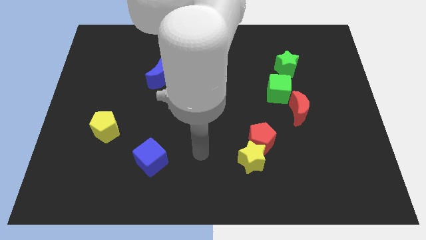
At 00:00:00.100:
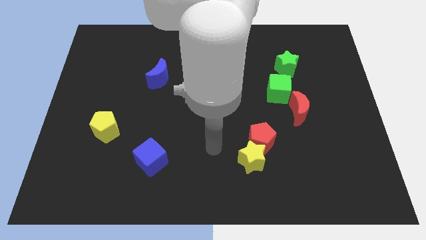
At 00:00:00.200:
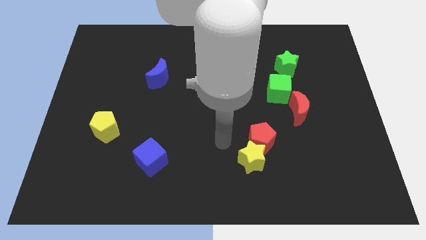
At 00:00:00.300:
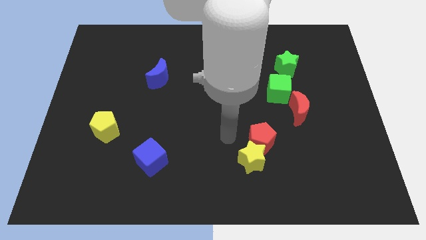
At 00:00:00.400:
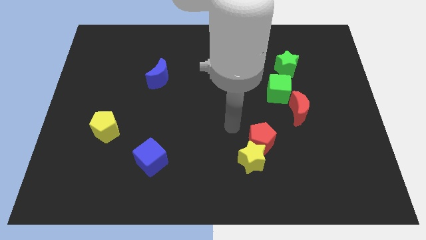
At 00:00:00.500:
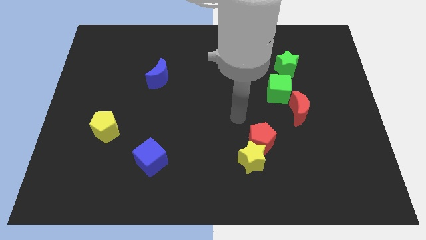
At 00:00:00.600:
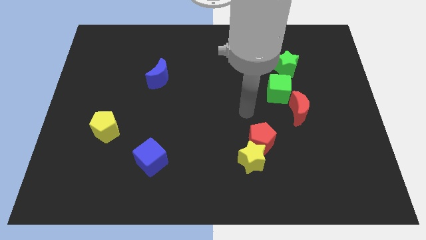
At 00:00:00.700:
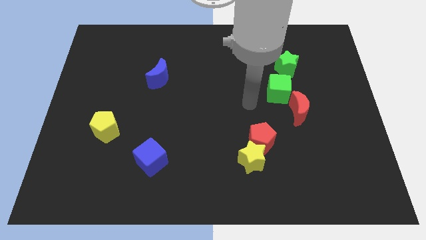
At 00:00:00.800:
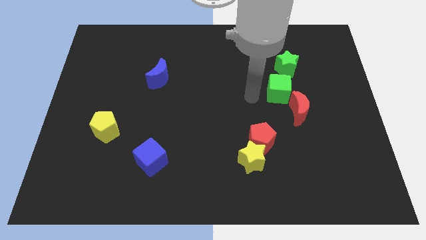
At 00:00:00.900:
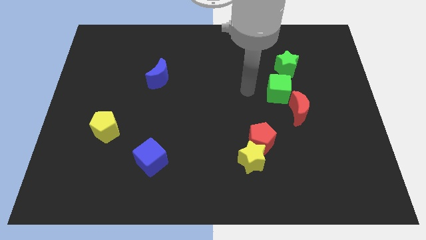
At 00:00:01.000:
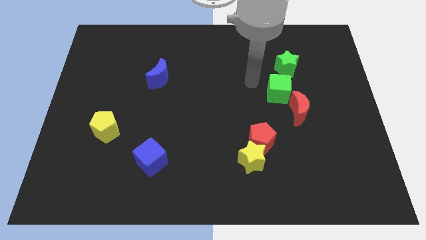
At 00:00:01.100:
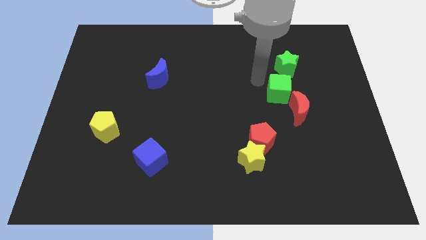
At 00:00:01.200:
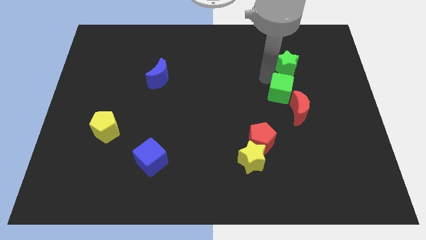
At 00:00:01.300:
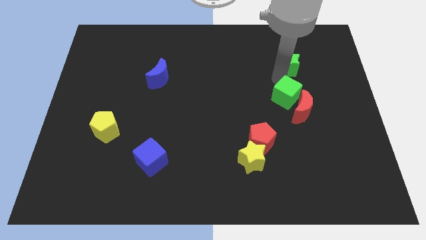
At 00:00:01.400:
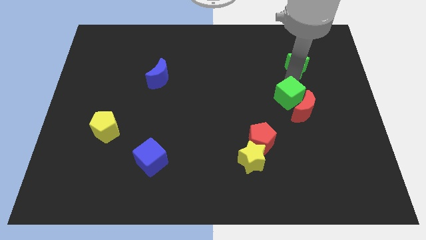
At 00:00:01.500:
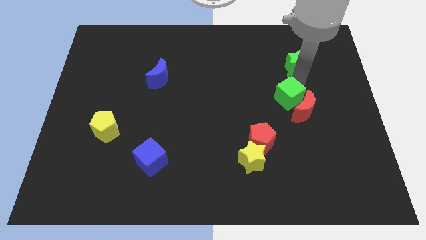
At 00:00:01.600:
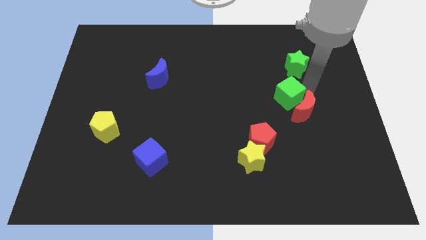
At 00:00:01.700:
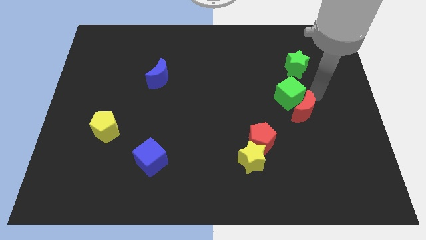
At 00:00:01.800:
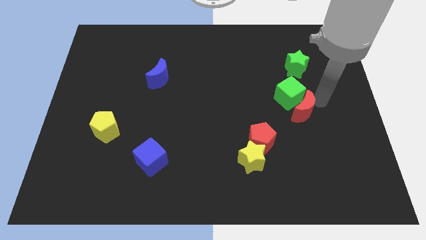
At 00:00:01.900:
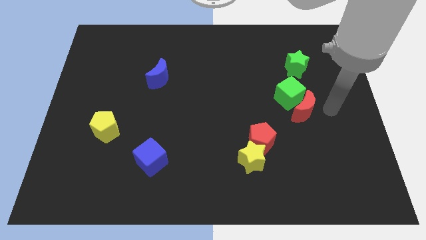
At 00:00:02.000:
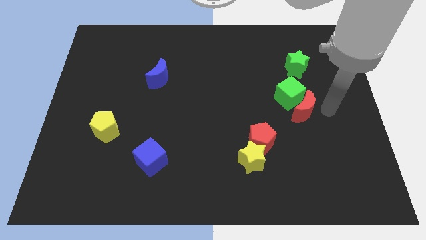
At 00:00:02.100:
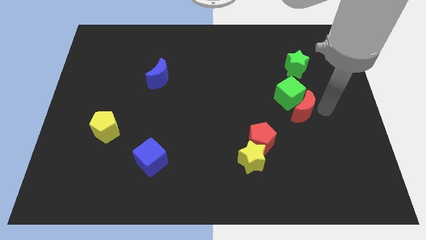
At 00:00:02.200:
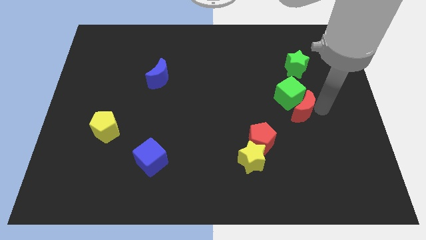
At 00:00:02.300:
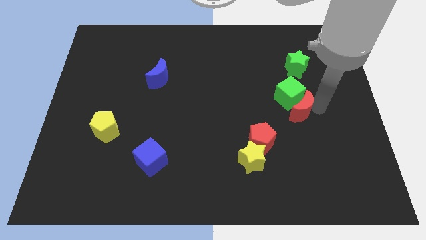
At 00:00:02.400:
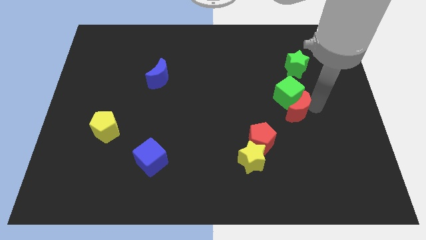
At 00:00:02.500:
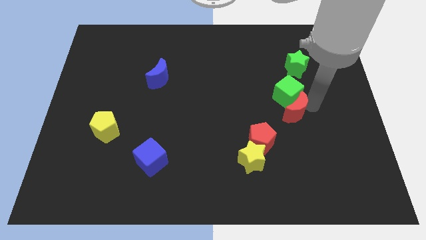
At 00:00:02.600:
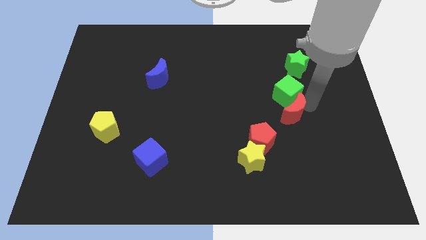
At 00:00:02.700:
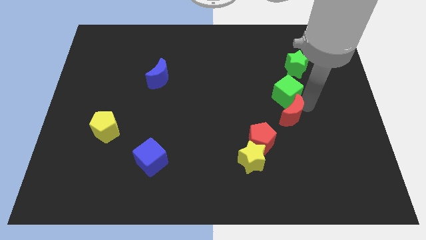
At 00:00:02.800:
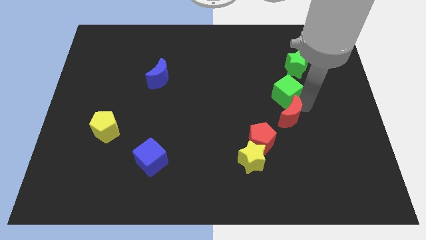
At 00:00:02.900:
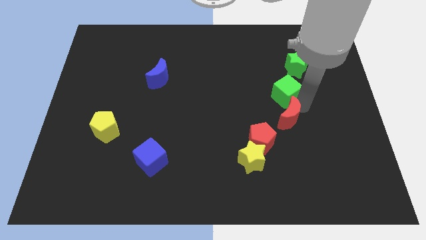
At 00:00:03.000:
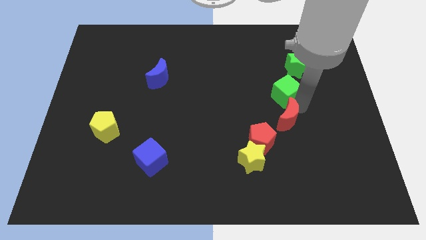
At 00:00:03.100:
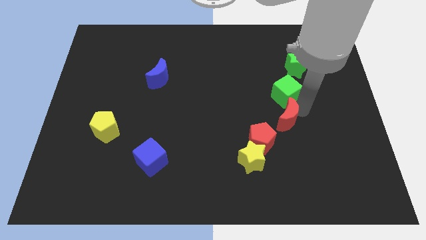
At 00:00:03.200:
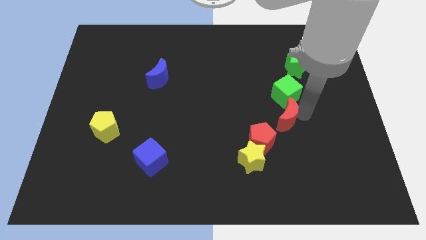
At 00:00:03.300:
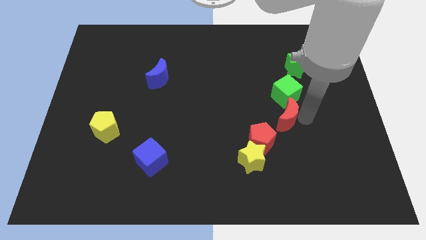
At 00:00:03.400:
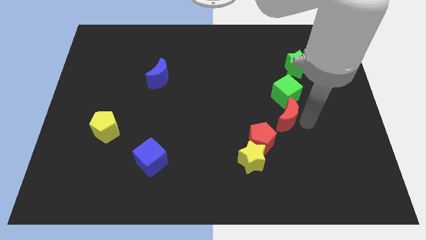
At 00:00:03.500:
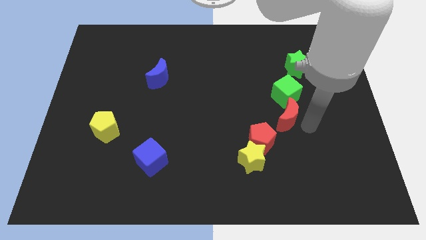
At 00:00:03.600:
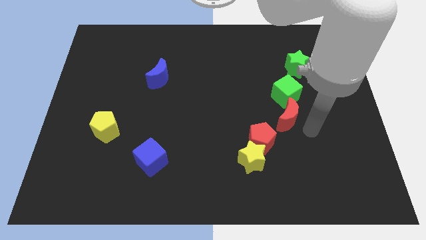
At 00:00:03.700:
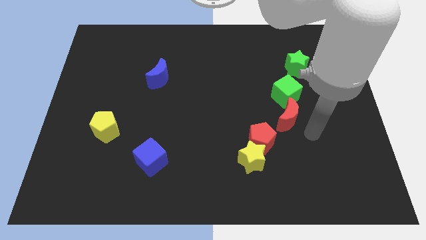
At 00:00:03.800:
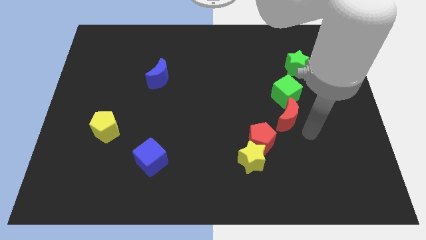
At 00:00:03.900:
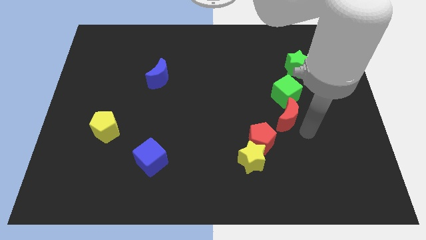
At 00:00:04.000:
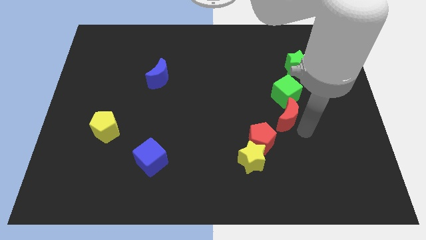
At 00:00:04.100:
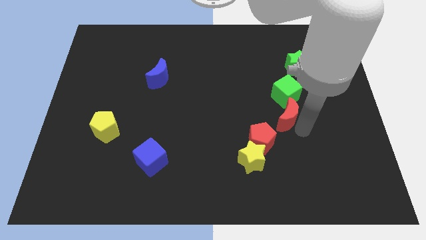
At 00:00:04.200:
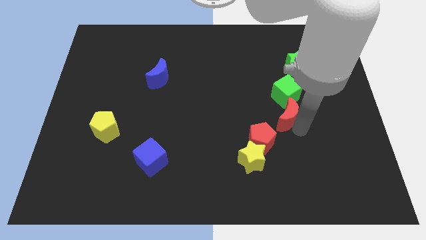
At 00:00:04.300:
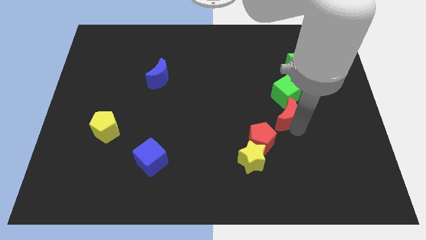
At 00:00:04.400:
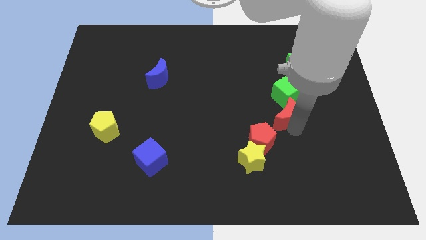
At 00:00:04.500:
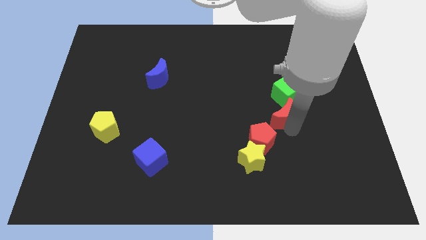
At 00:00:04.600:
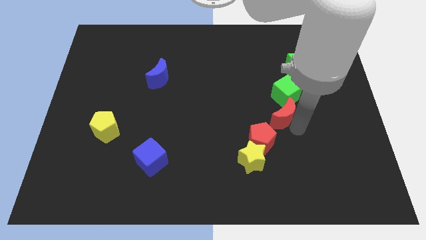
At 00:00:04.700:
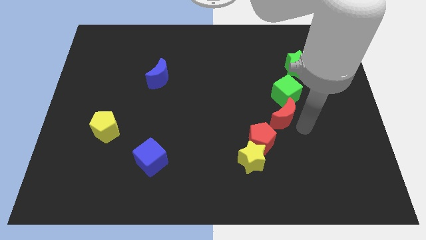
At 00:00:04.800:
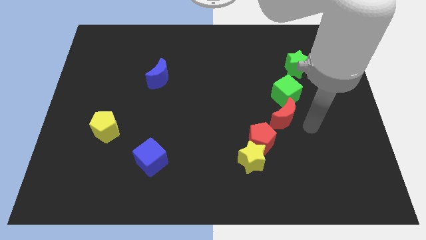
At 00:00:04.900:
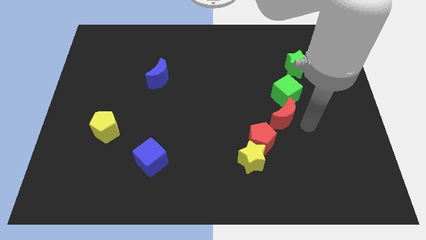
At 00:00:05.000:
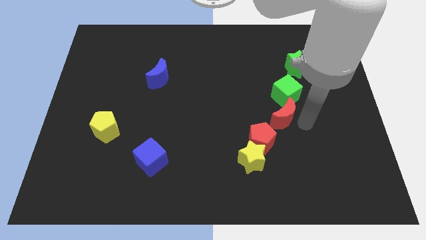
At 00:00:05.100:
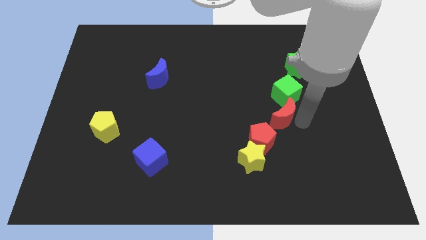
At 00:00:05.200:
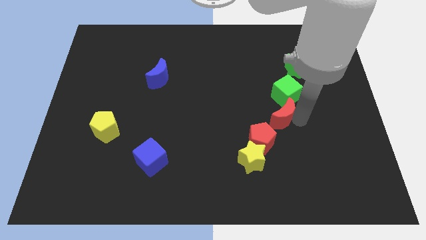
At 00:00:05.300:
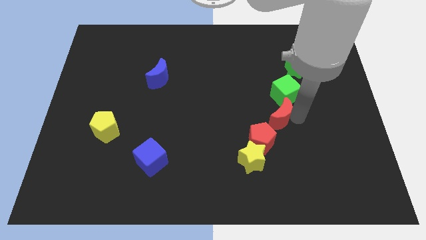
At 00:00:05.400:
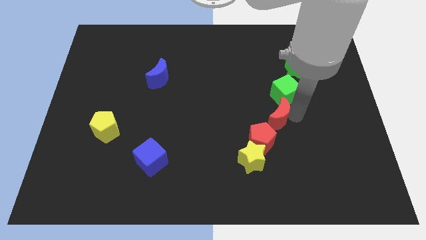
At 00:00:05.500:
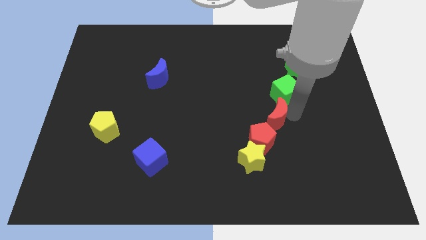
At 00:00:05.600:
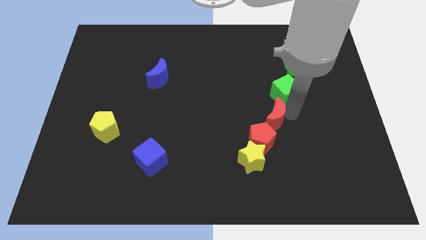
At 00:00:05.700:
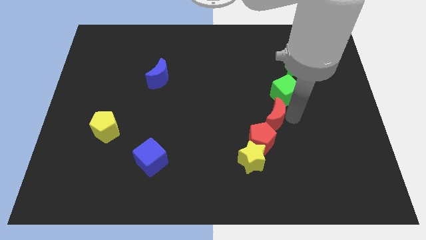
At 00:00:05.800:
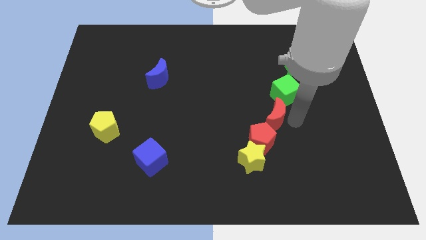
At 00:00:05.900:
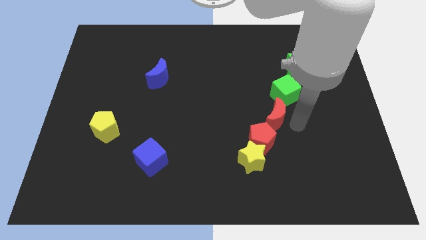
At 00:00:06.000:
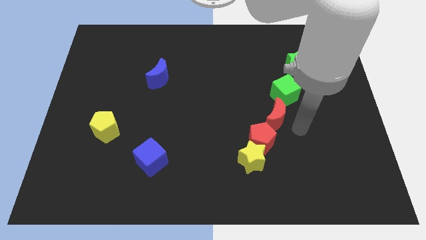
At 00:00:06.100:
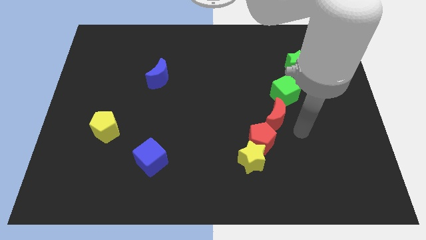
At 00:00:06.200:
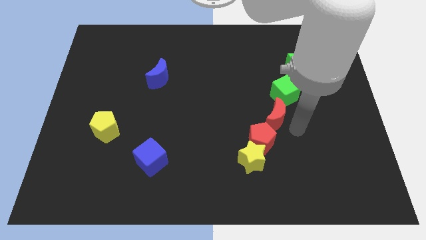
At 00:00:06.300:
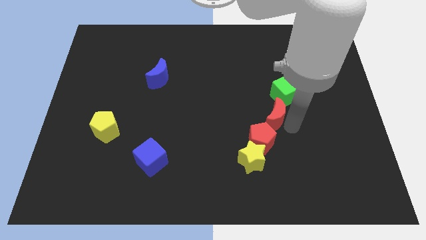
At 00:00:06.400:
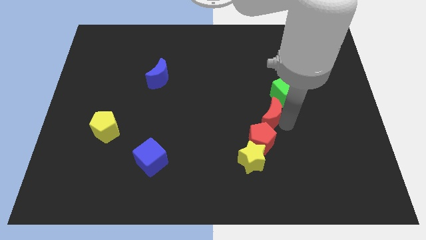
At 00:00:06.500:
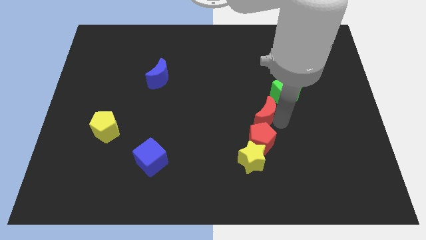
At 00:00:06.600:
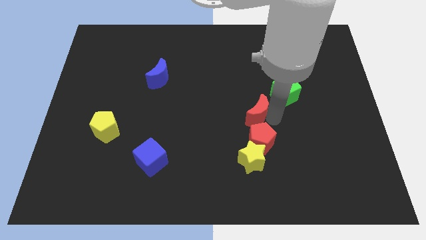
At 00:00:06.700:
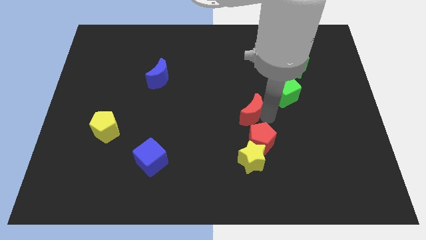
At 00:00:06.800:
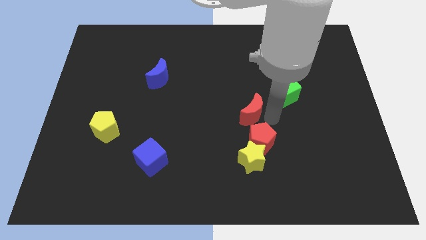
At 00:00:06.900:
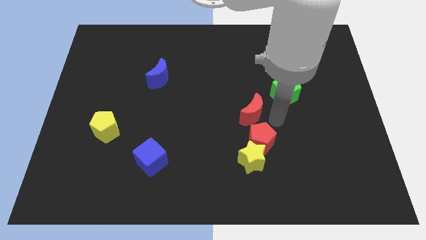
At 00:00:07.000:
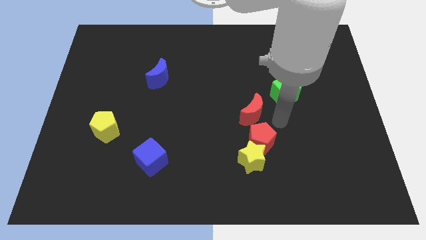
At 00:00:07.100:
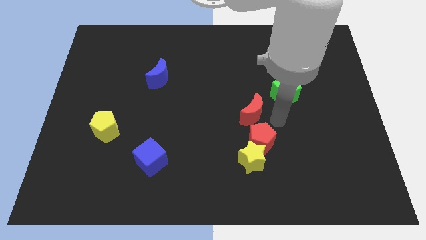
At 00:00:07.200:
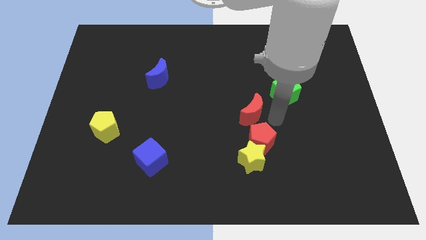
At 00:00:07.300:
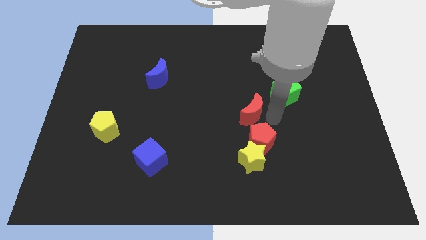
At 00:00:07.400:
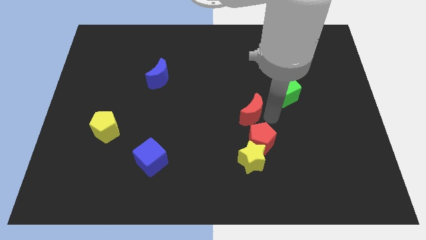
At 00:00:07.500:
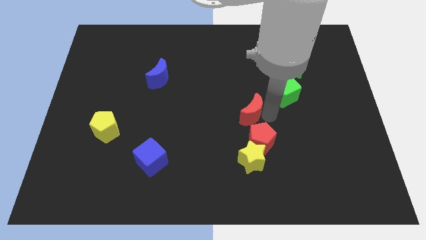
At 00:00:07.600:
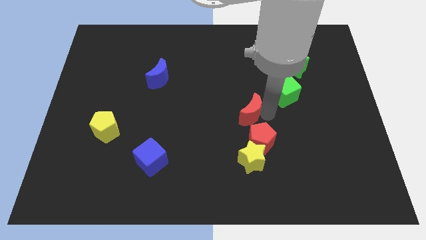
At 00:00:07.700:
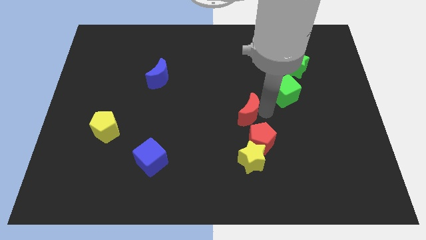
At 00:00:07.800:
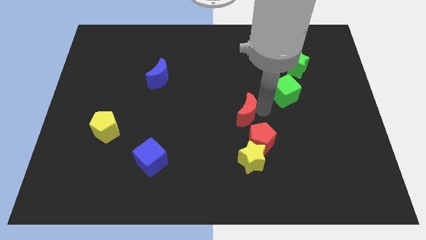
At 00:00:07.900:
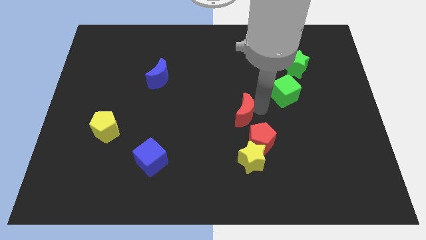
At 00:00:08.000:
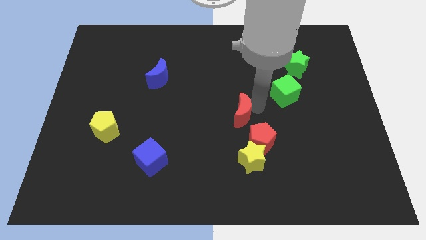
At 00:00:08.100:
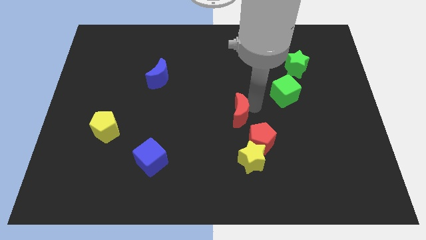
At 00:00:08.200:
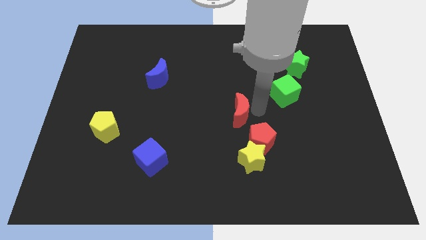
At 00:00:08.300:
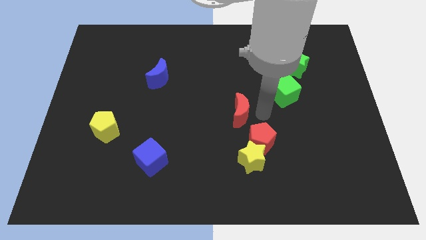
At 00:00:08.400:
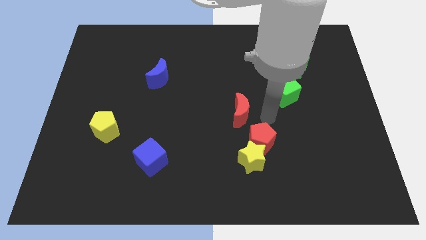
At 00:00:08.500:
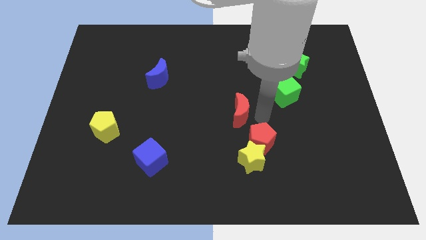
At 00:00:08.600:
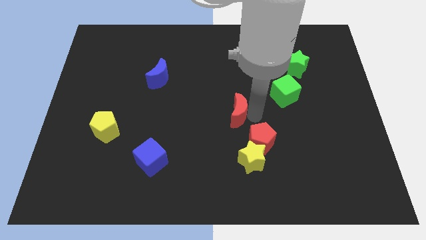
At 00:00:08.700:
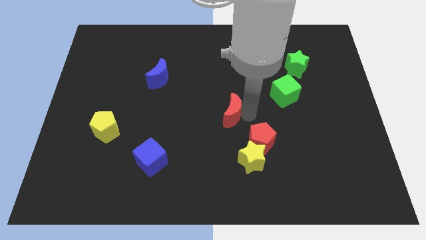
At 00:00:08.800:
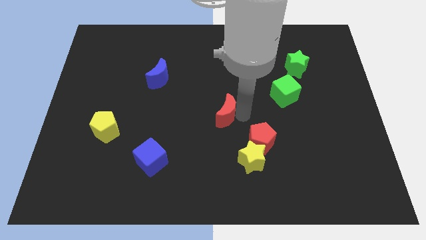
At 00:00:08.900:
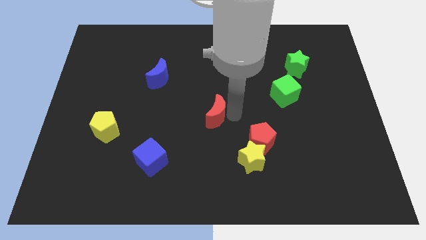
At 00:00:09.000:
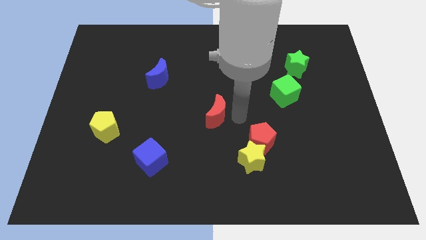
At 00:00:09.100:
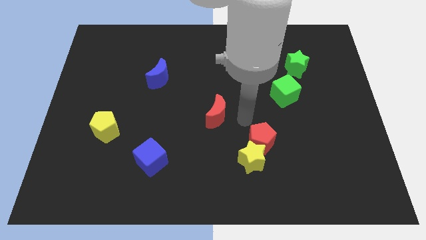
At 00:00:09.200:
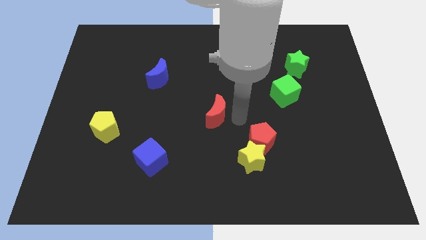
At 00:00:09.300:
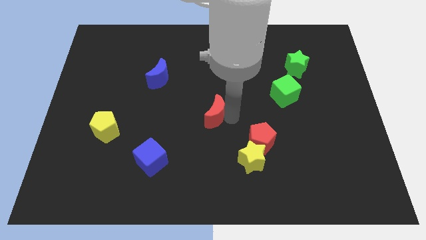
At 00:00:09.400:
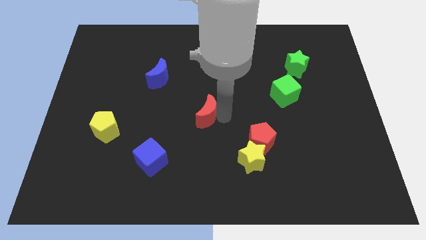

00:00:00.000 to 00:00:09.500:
push the red moon left
